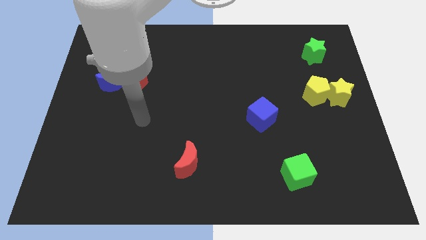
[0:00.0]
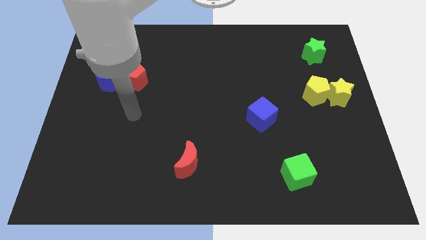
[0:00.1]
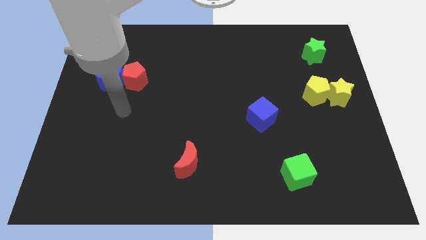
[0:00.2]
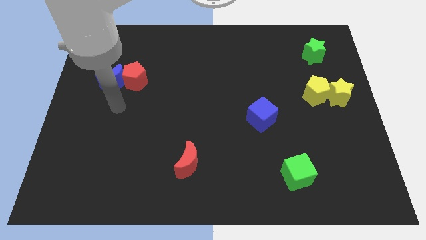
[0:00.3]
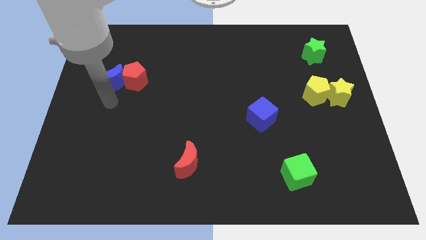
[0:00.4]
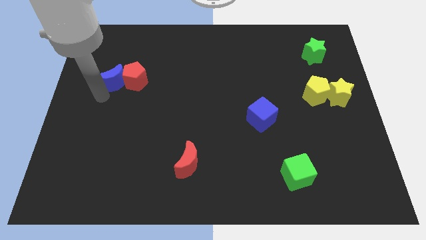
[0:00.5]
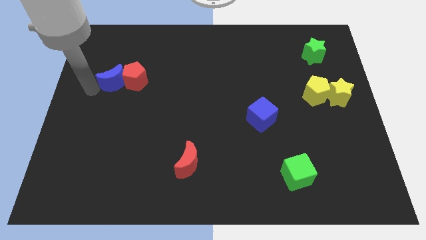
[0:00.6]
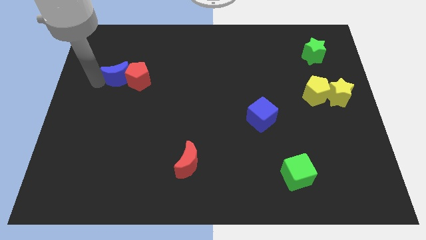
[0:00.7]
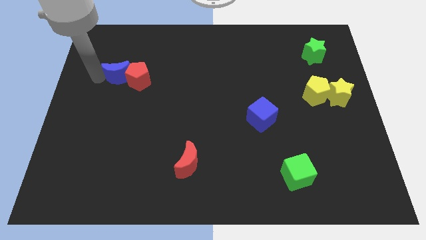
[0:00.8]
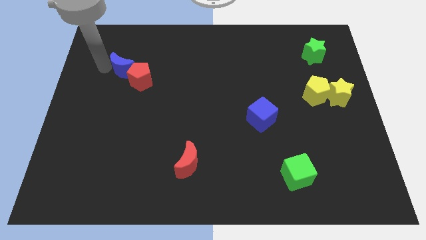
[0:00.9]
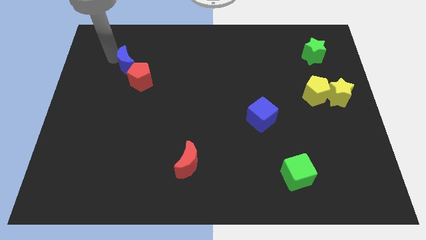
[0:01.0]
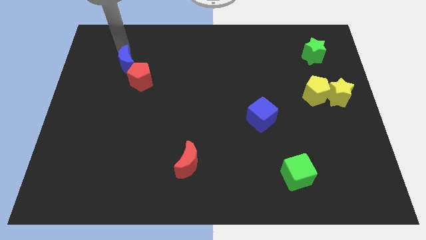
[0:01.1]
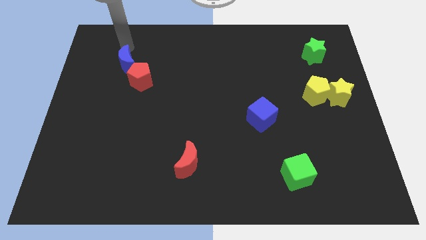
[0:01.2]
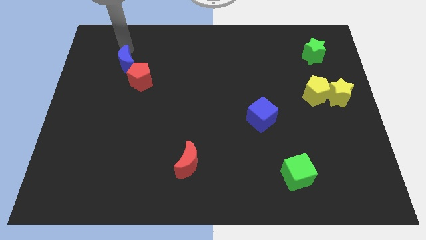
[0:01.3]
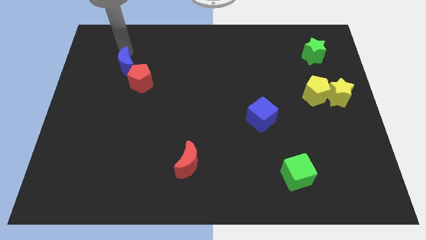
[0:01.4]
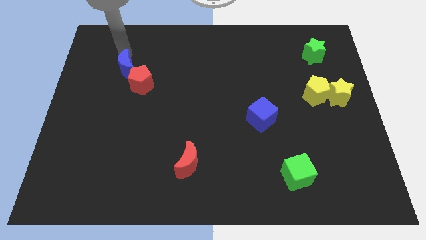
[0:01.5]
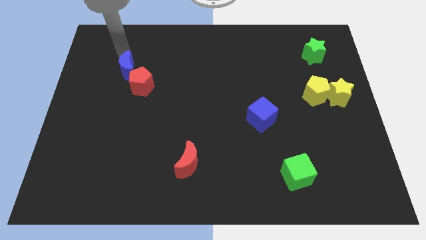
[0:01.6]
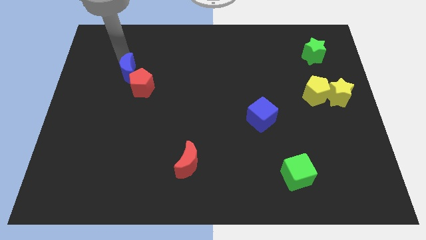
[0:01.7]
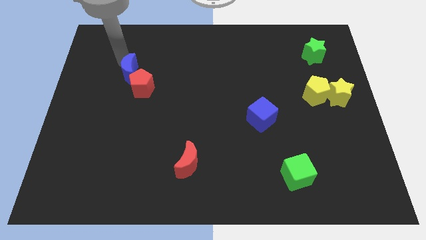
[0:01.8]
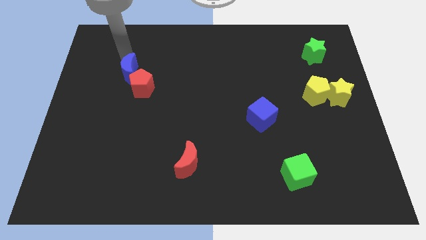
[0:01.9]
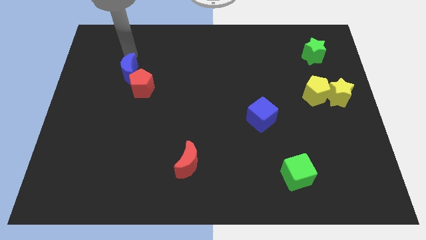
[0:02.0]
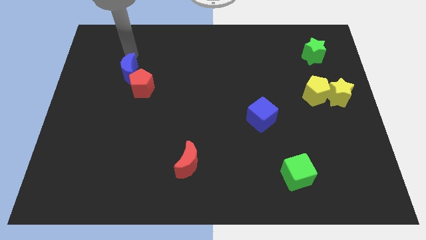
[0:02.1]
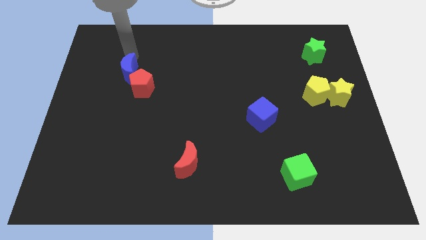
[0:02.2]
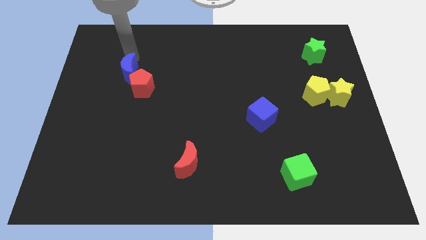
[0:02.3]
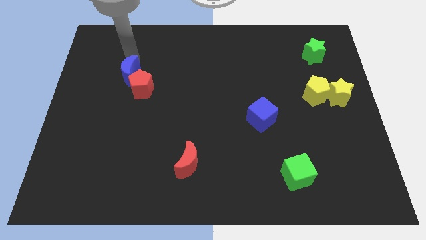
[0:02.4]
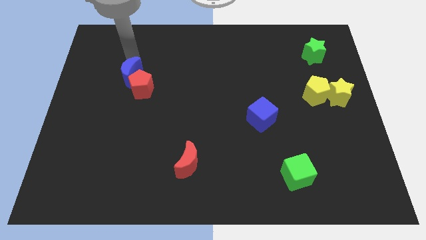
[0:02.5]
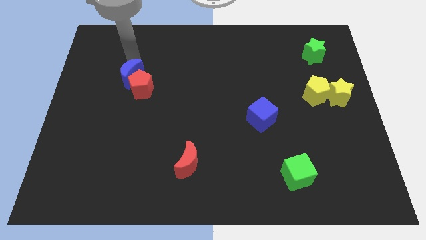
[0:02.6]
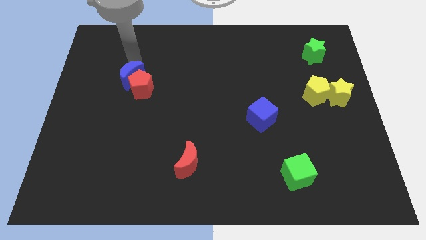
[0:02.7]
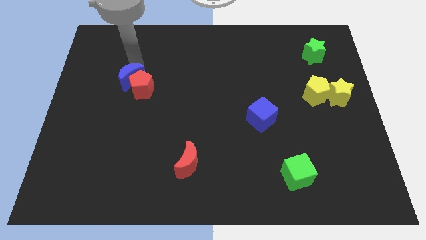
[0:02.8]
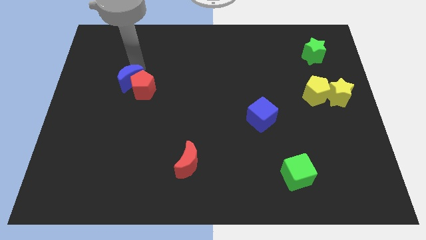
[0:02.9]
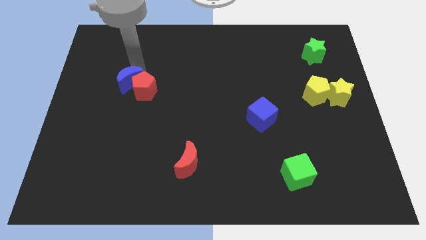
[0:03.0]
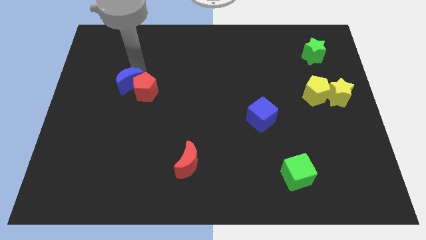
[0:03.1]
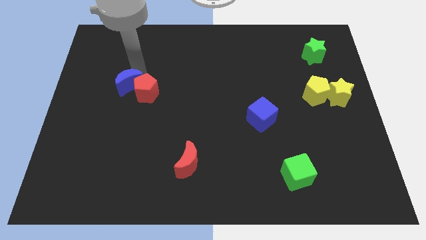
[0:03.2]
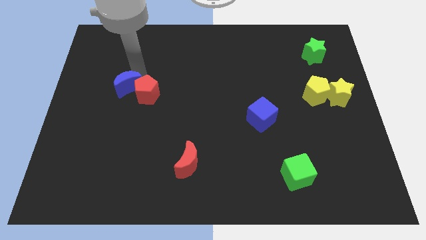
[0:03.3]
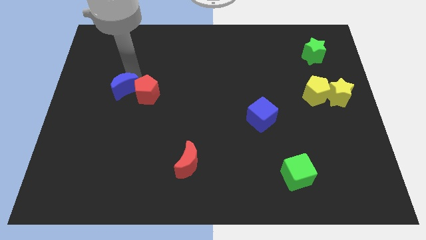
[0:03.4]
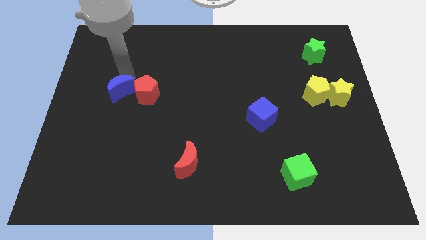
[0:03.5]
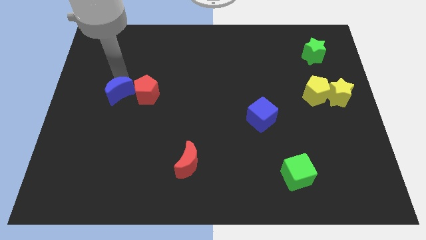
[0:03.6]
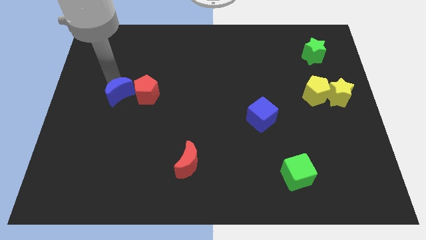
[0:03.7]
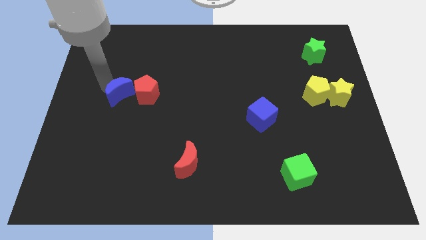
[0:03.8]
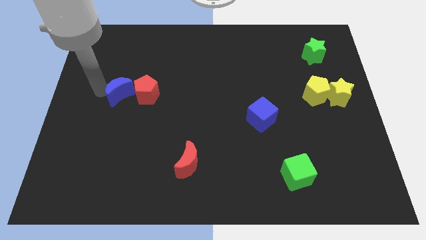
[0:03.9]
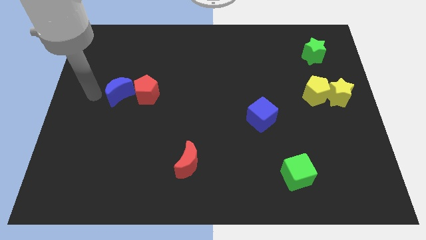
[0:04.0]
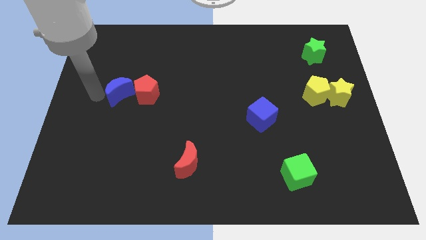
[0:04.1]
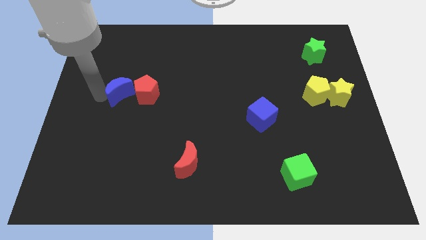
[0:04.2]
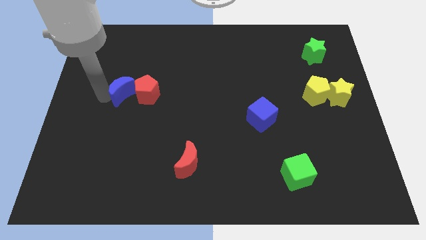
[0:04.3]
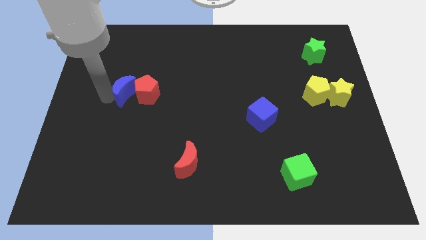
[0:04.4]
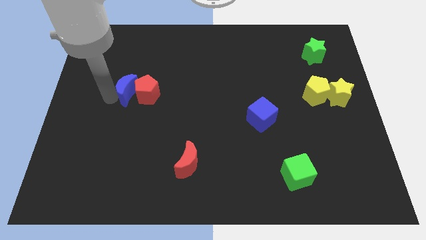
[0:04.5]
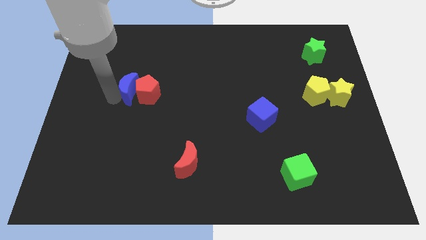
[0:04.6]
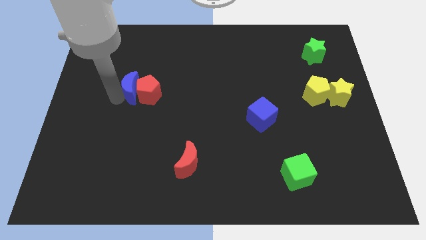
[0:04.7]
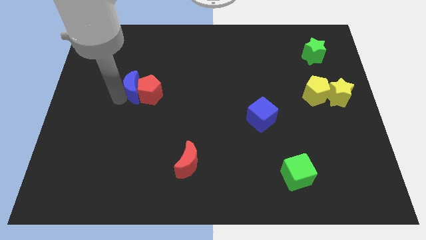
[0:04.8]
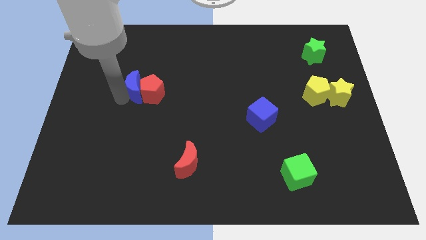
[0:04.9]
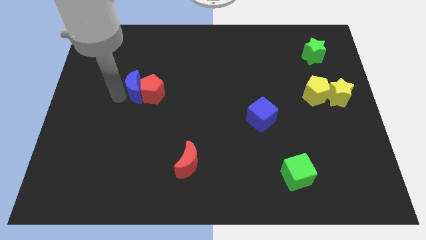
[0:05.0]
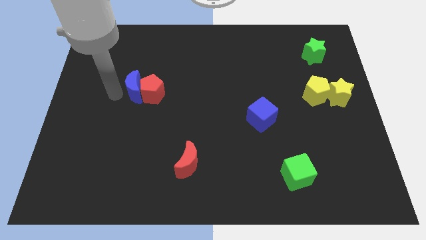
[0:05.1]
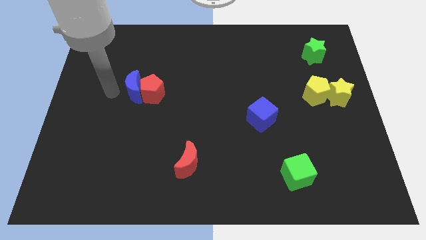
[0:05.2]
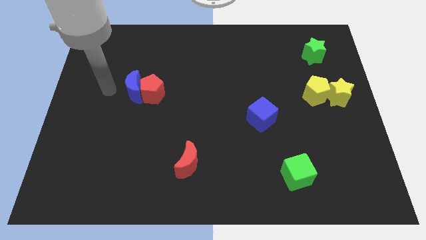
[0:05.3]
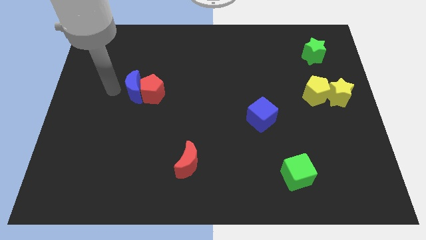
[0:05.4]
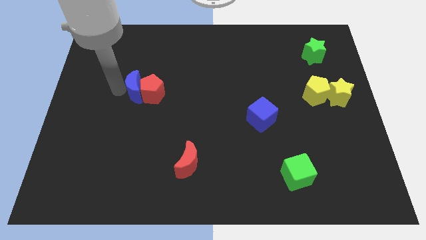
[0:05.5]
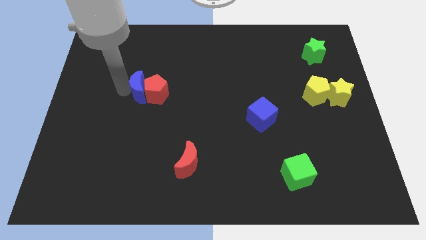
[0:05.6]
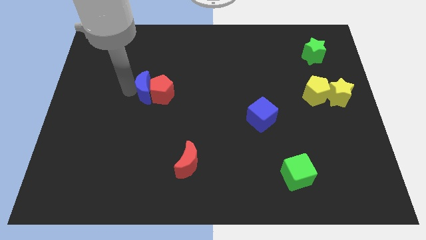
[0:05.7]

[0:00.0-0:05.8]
slide the blue moon to the right somewhat

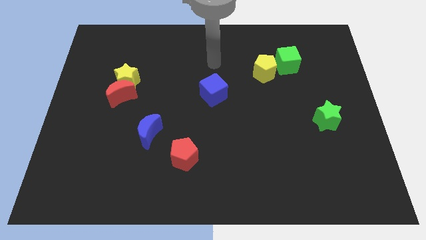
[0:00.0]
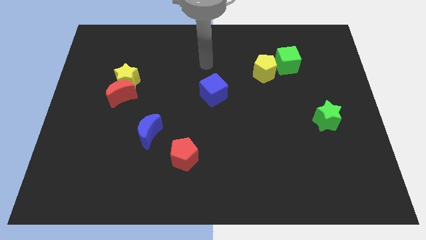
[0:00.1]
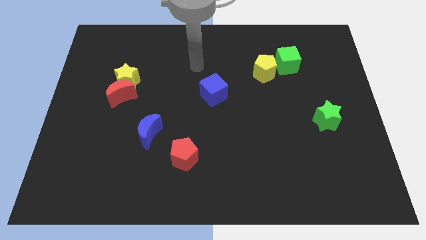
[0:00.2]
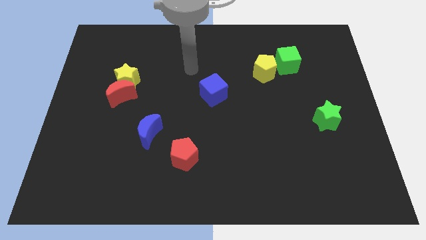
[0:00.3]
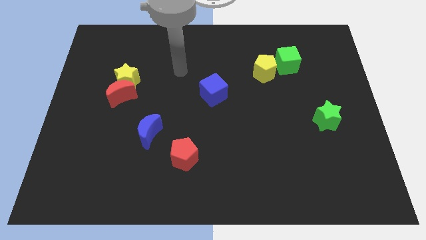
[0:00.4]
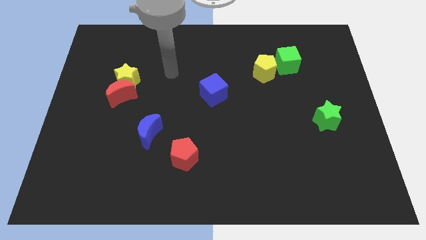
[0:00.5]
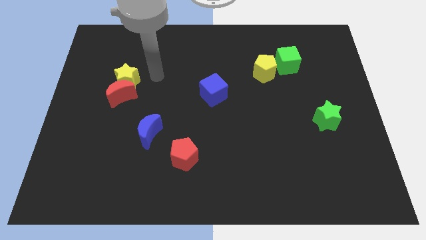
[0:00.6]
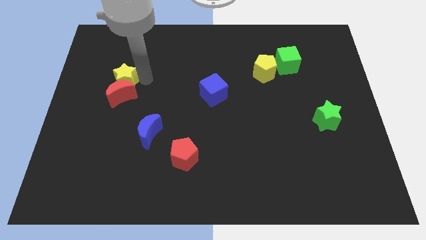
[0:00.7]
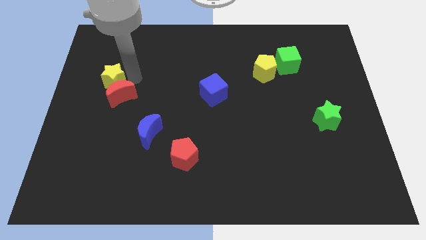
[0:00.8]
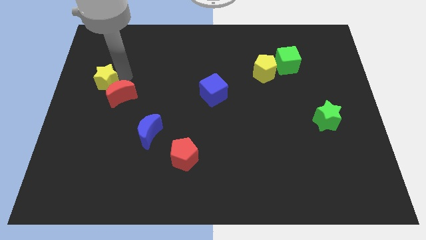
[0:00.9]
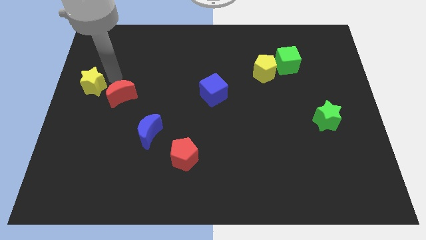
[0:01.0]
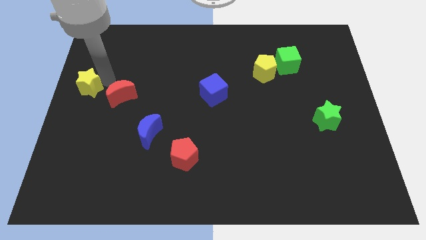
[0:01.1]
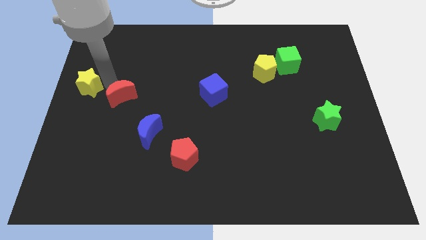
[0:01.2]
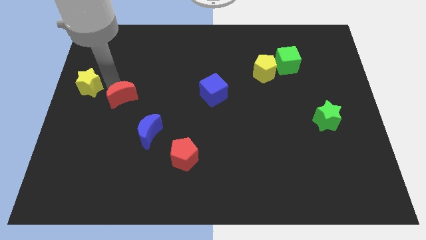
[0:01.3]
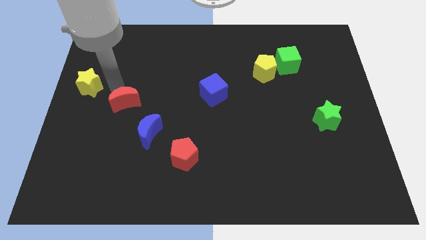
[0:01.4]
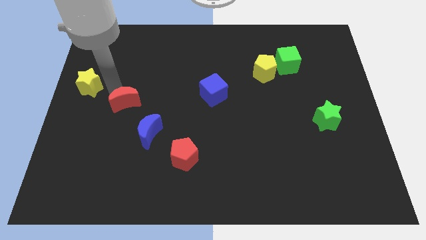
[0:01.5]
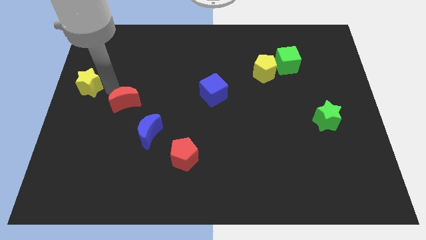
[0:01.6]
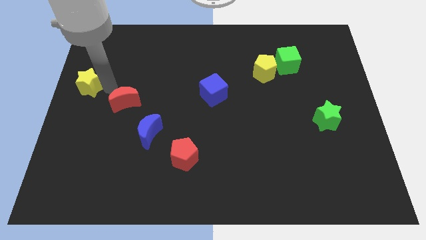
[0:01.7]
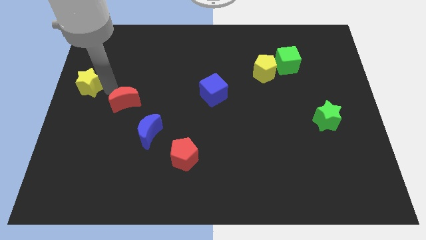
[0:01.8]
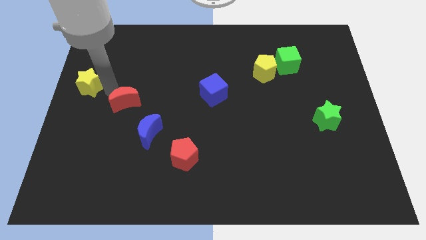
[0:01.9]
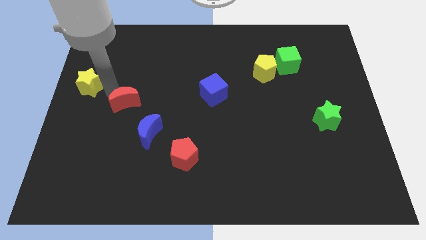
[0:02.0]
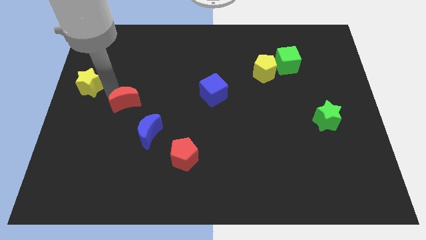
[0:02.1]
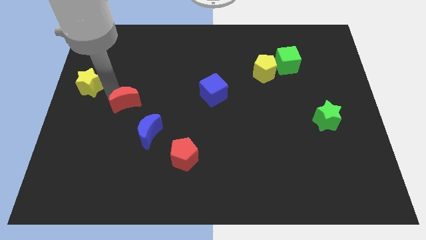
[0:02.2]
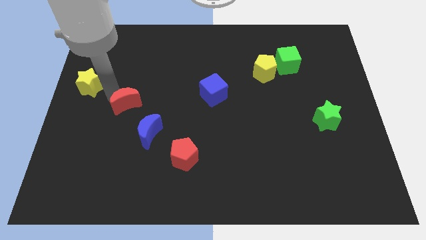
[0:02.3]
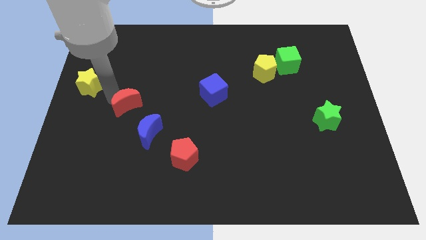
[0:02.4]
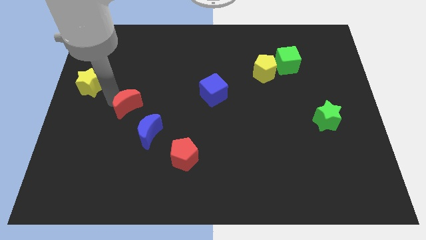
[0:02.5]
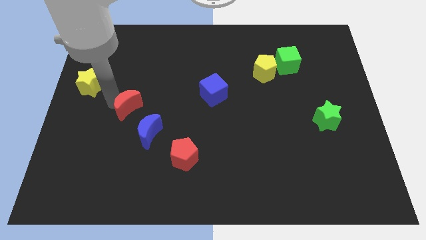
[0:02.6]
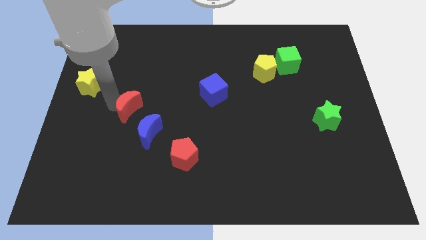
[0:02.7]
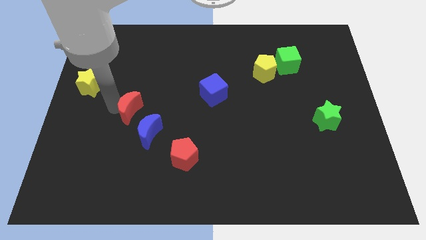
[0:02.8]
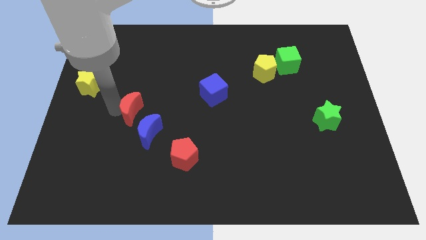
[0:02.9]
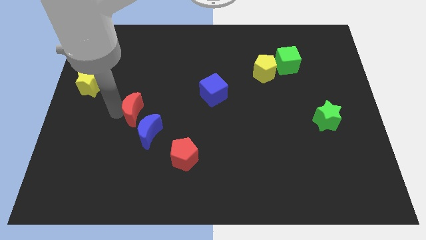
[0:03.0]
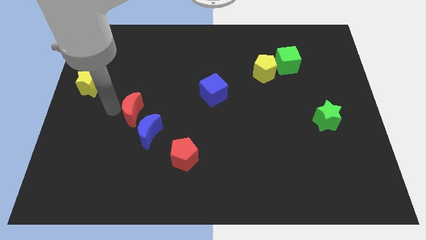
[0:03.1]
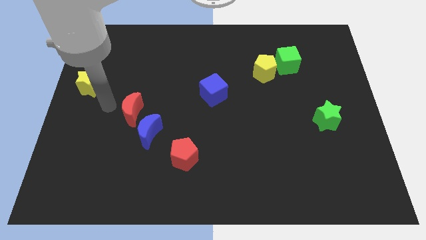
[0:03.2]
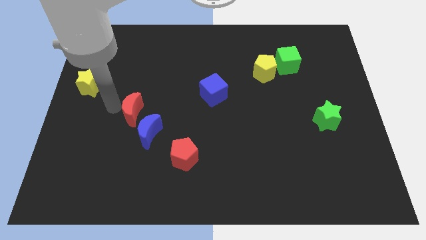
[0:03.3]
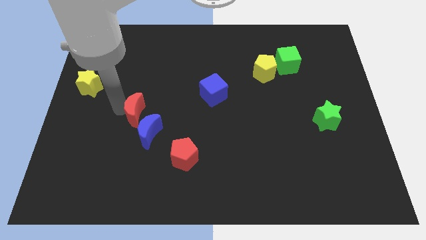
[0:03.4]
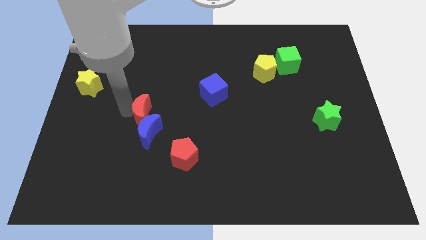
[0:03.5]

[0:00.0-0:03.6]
push the red moon a bit down and then right
